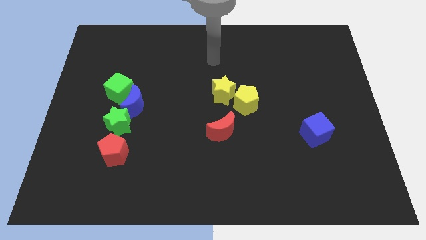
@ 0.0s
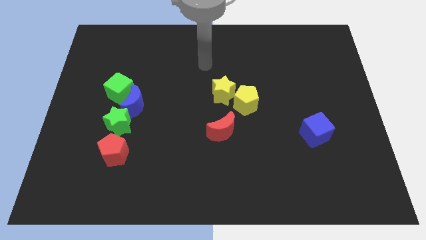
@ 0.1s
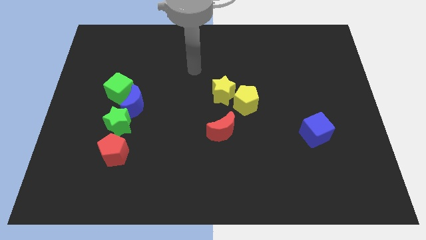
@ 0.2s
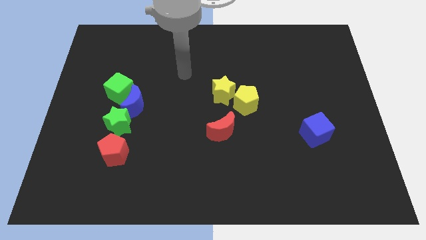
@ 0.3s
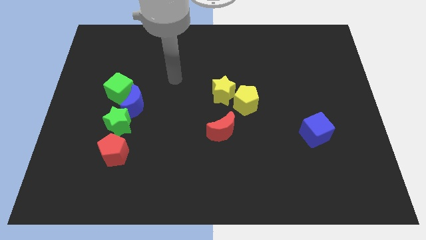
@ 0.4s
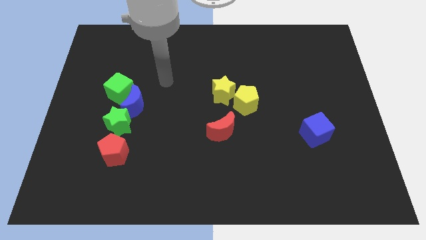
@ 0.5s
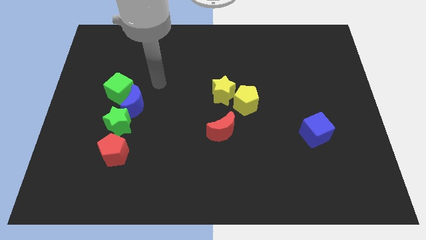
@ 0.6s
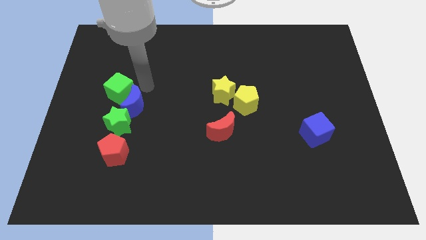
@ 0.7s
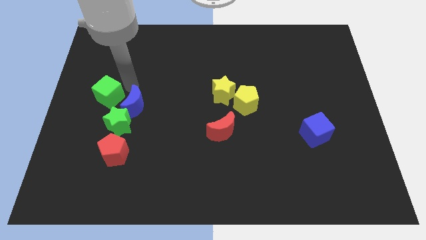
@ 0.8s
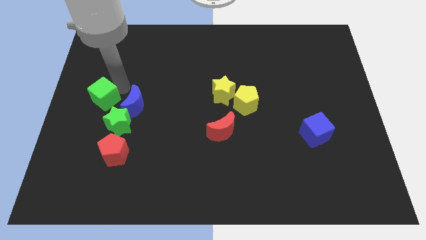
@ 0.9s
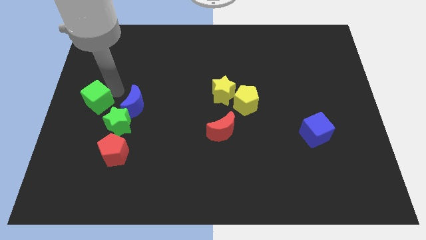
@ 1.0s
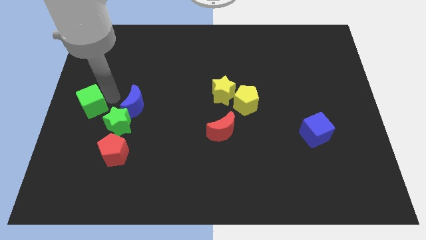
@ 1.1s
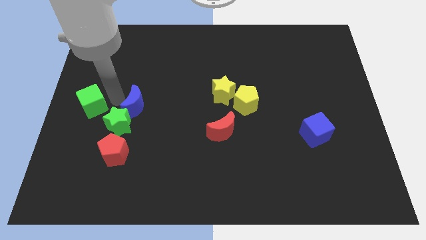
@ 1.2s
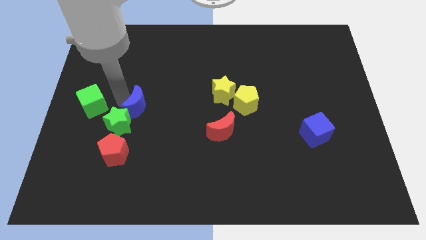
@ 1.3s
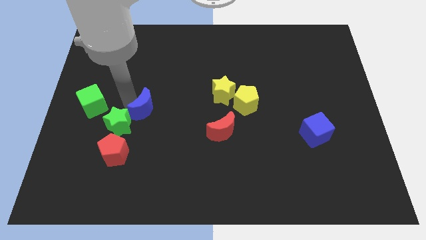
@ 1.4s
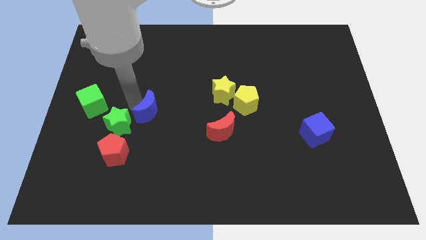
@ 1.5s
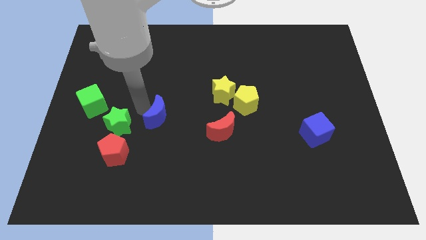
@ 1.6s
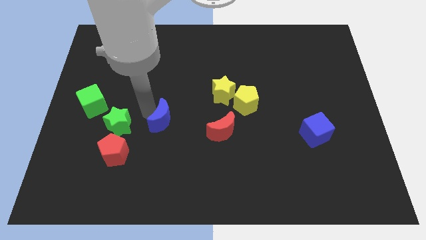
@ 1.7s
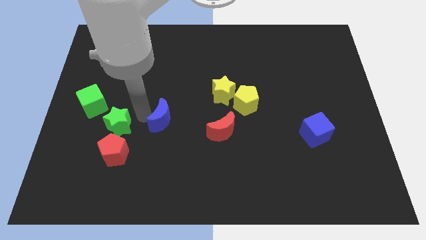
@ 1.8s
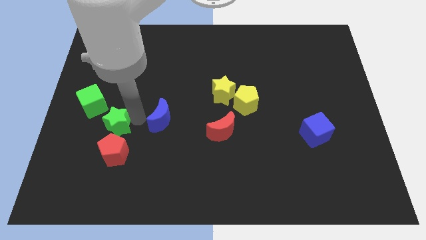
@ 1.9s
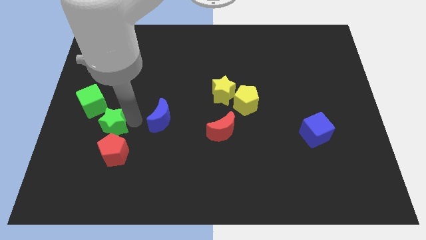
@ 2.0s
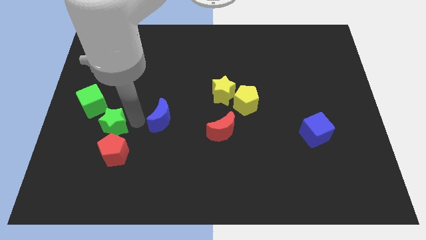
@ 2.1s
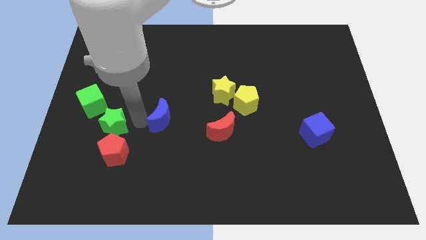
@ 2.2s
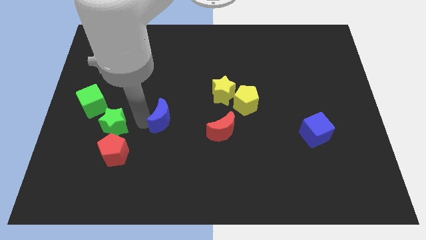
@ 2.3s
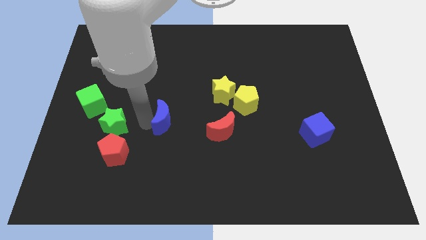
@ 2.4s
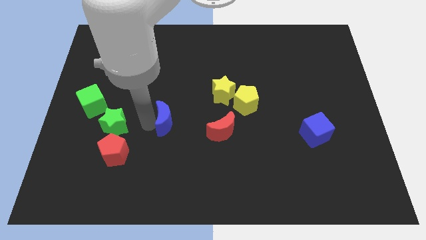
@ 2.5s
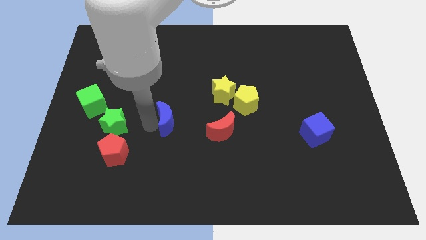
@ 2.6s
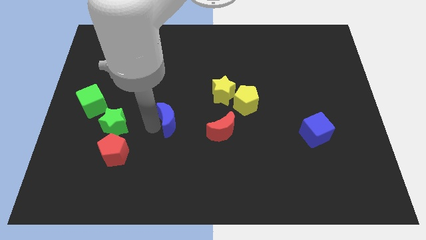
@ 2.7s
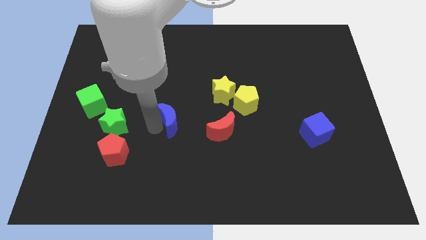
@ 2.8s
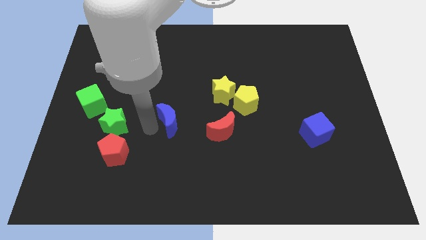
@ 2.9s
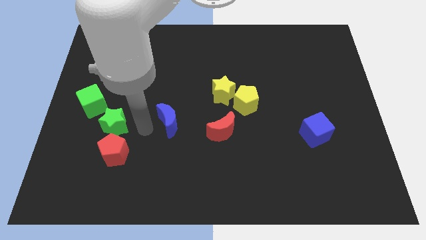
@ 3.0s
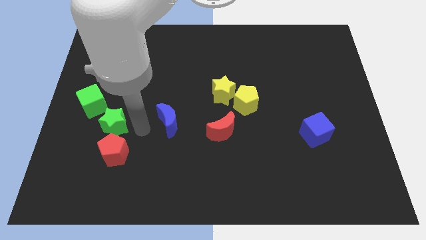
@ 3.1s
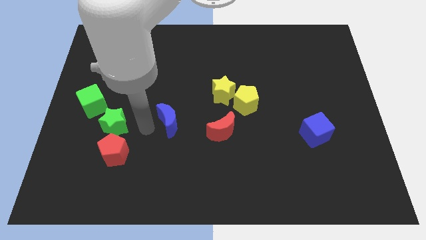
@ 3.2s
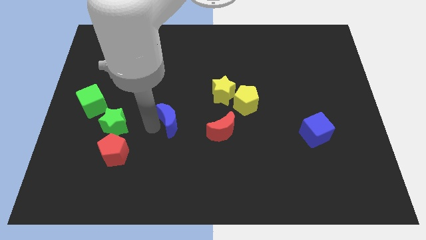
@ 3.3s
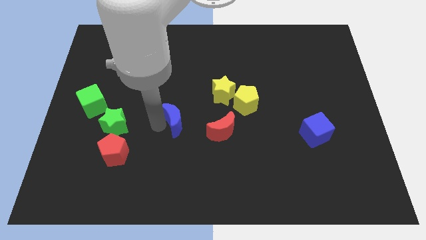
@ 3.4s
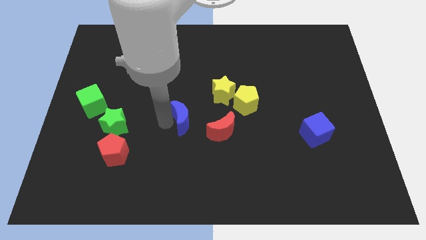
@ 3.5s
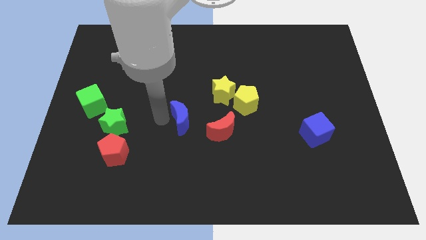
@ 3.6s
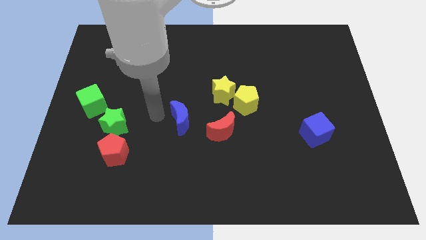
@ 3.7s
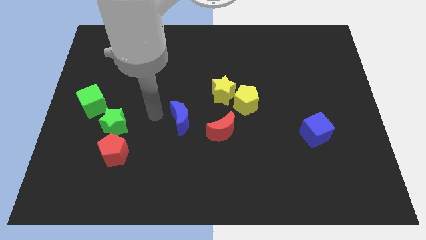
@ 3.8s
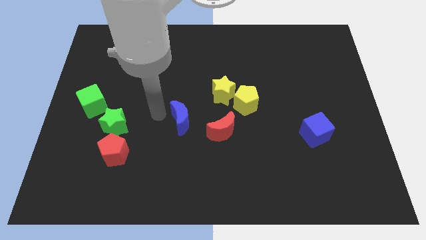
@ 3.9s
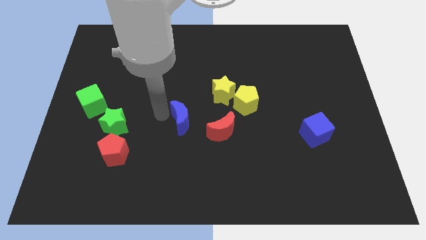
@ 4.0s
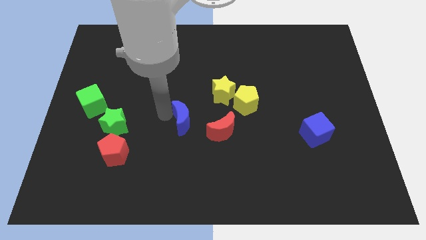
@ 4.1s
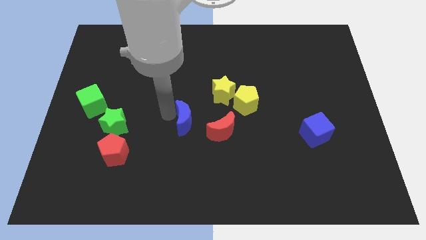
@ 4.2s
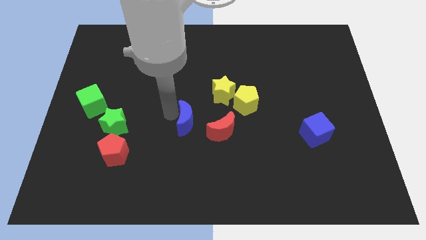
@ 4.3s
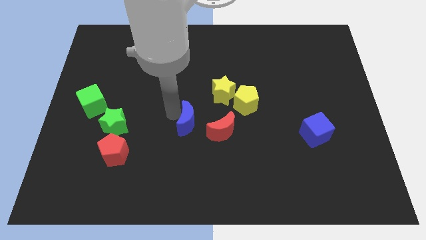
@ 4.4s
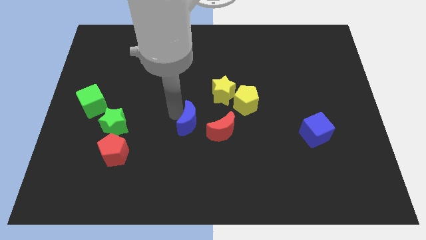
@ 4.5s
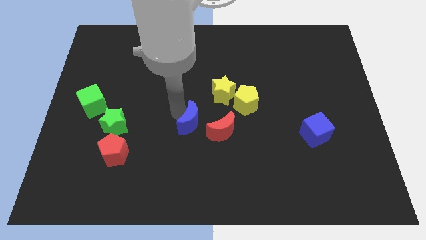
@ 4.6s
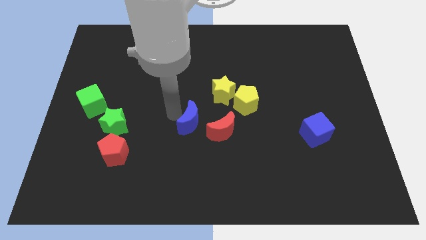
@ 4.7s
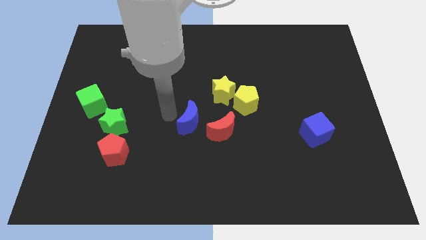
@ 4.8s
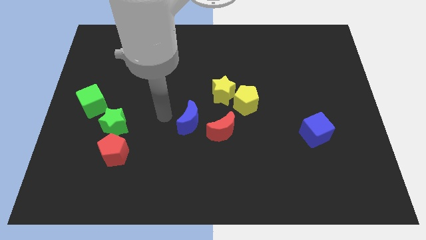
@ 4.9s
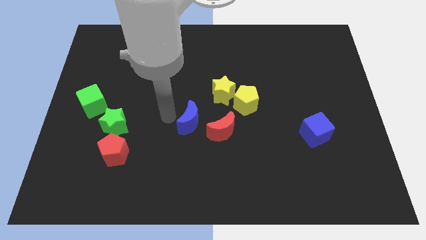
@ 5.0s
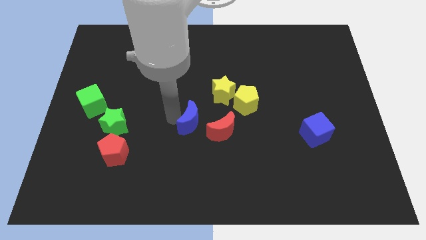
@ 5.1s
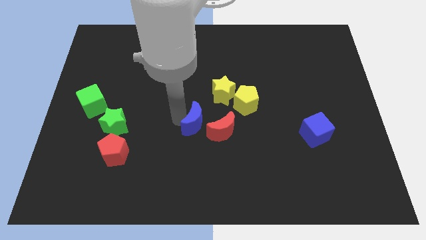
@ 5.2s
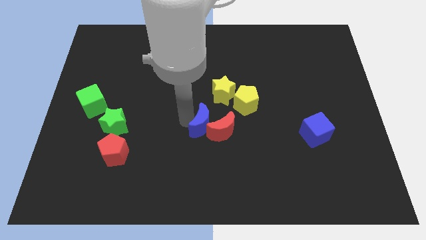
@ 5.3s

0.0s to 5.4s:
move the blue moon to the red moon

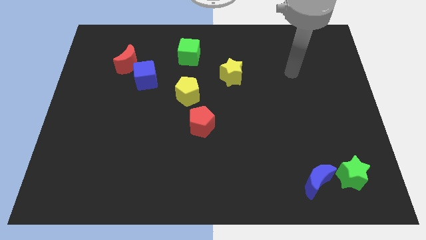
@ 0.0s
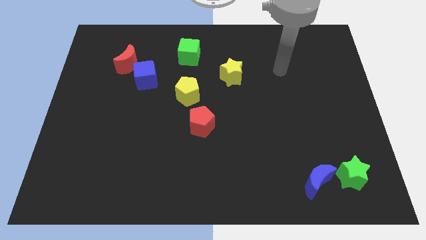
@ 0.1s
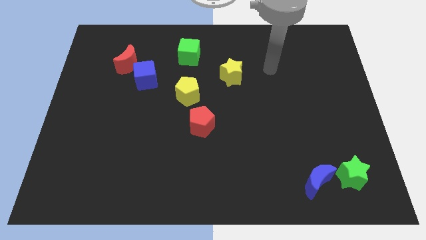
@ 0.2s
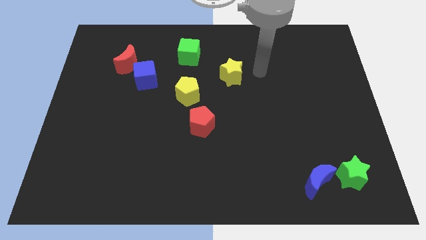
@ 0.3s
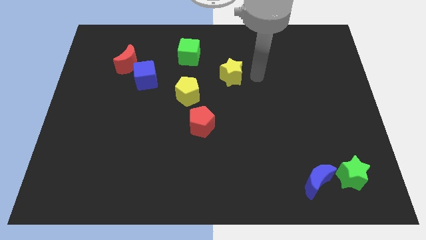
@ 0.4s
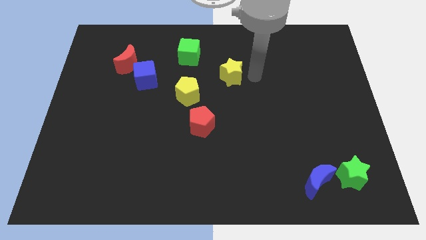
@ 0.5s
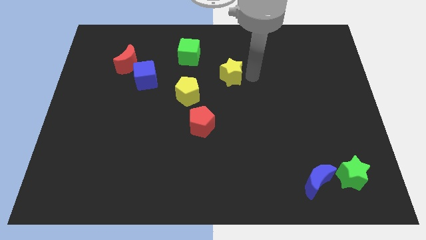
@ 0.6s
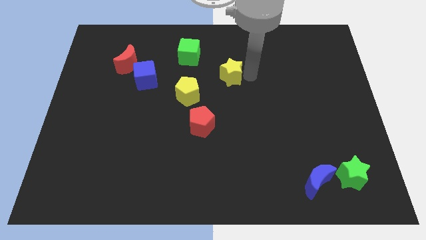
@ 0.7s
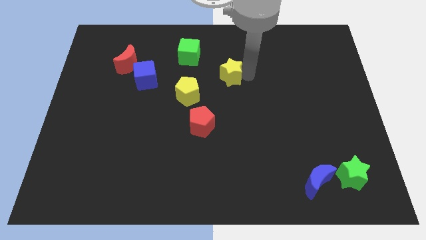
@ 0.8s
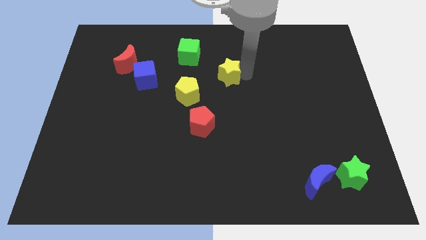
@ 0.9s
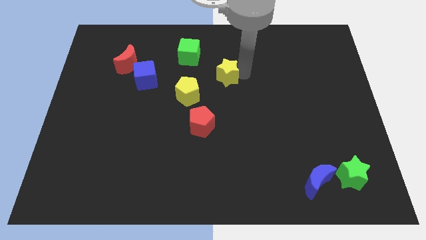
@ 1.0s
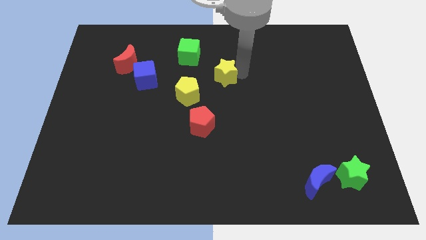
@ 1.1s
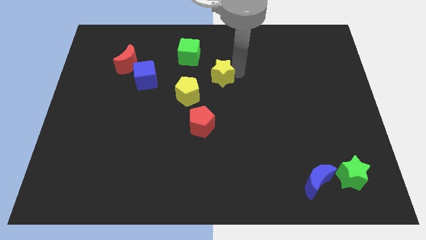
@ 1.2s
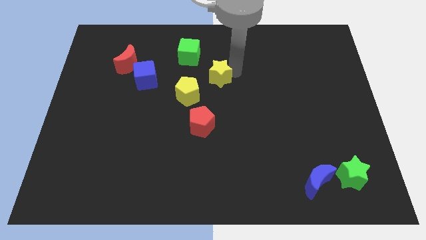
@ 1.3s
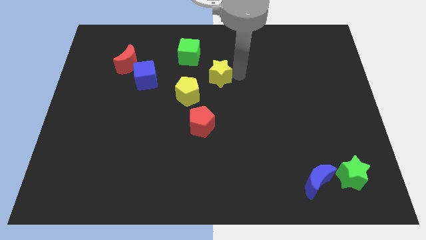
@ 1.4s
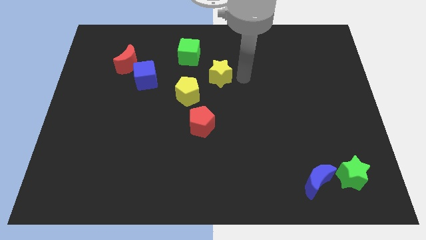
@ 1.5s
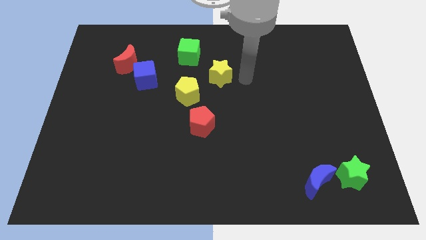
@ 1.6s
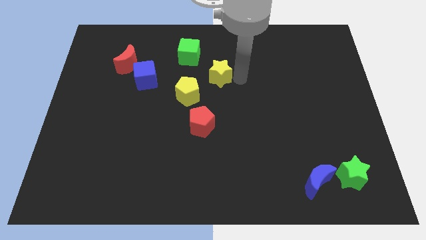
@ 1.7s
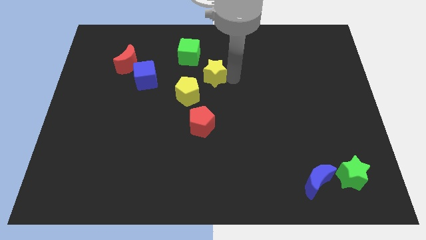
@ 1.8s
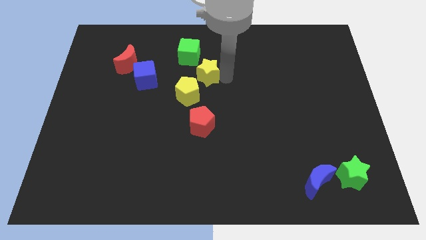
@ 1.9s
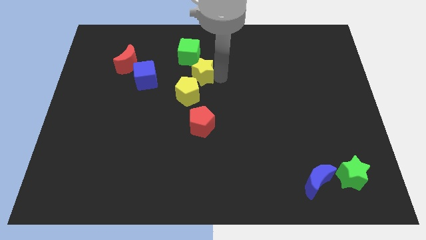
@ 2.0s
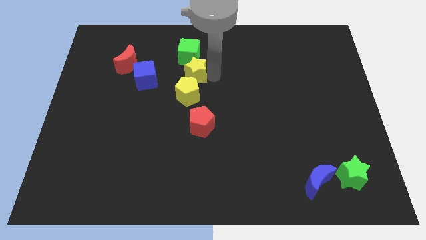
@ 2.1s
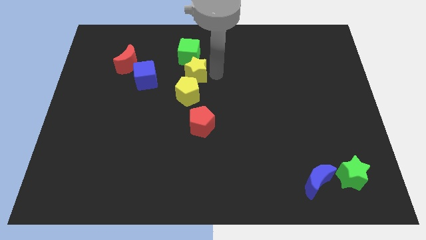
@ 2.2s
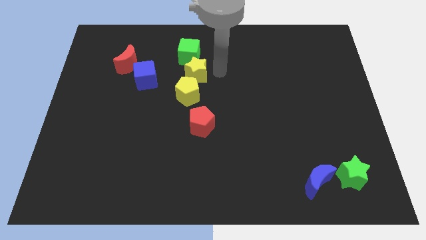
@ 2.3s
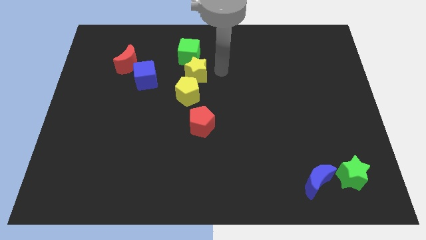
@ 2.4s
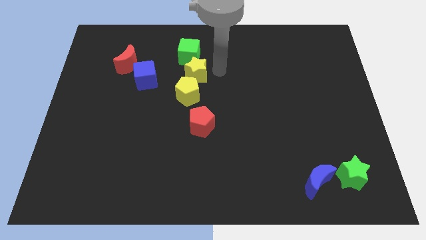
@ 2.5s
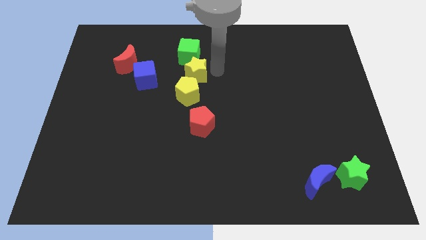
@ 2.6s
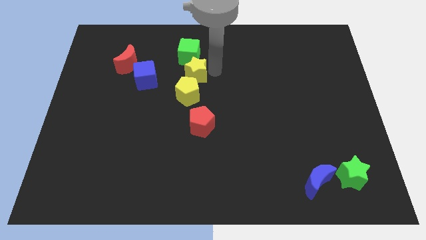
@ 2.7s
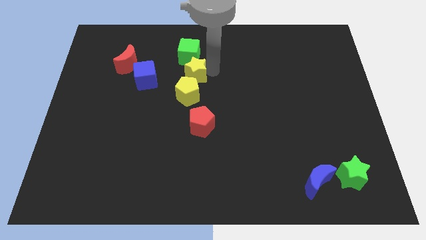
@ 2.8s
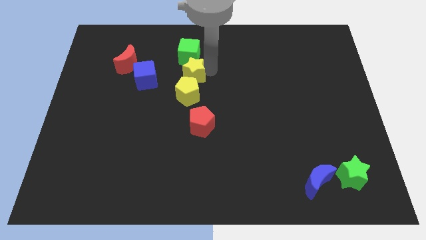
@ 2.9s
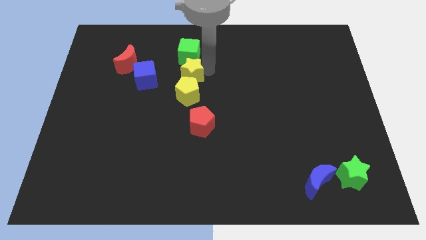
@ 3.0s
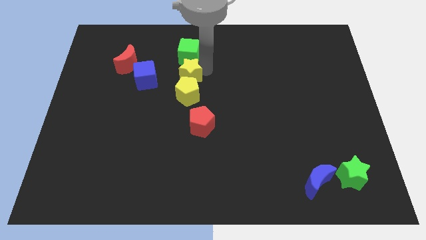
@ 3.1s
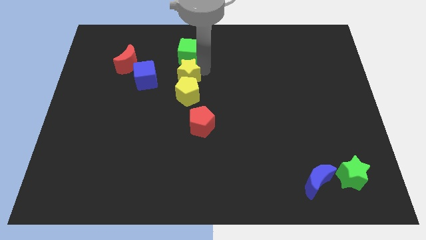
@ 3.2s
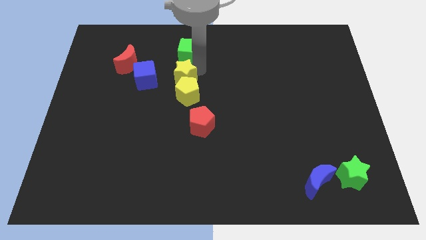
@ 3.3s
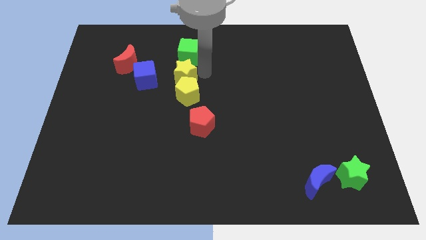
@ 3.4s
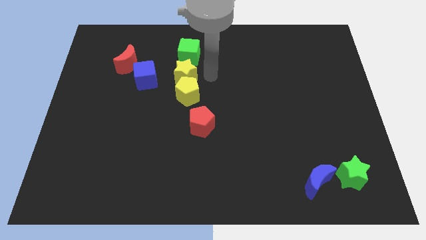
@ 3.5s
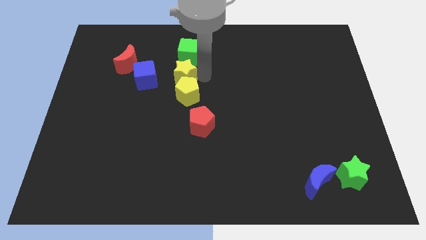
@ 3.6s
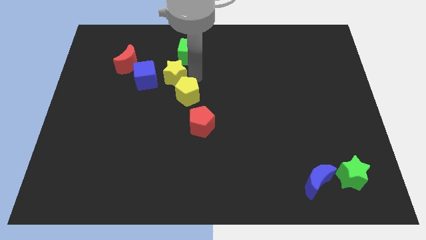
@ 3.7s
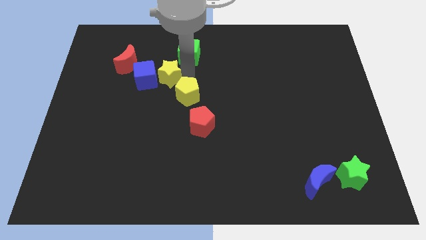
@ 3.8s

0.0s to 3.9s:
move the yellow star towards the blue cube
